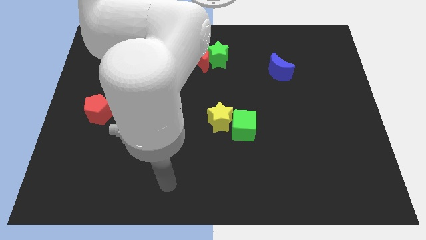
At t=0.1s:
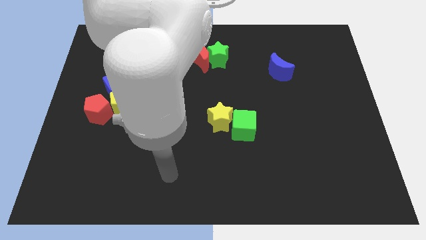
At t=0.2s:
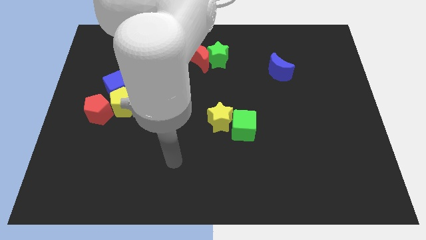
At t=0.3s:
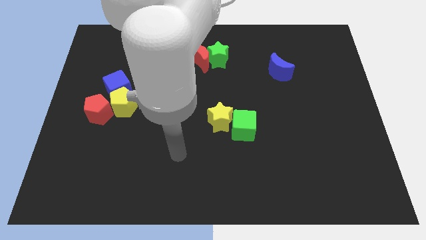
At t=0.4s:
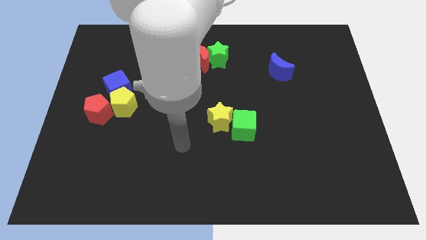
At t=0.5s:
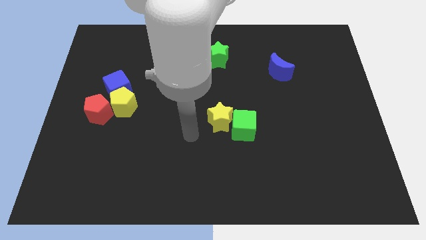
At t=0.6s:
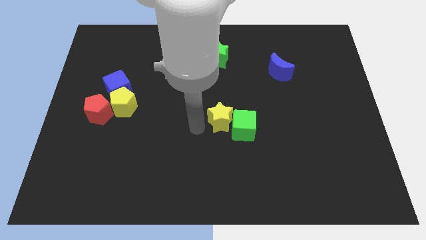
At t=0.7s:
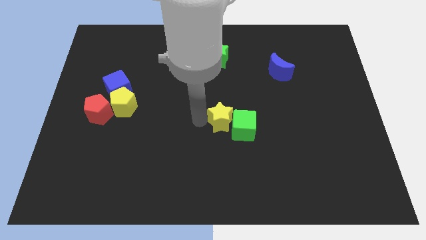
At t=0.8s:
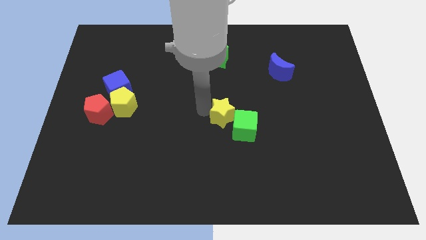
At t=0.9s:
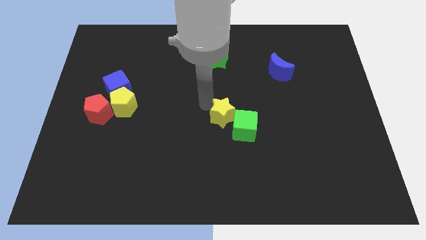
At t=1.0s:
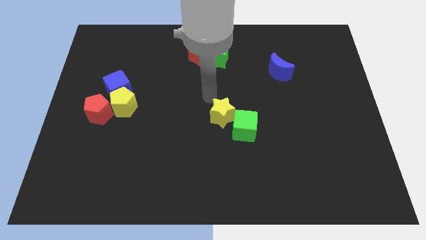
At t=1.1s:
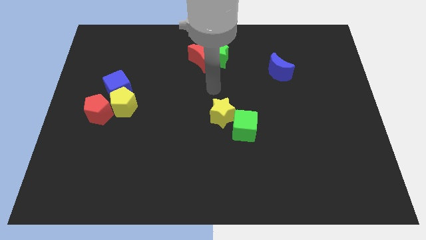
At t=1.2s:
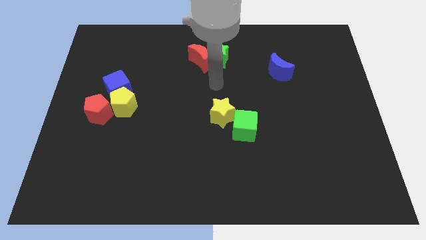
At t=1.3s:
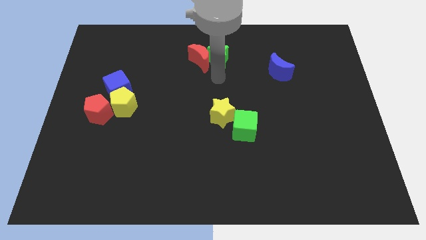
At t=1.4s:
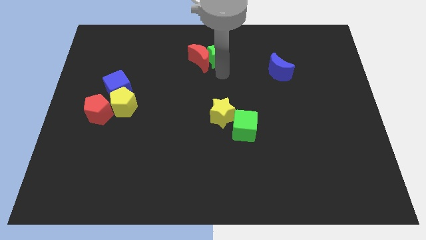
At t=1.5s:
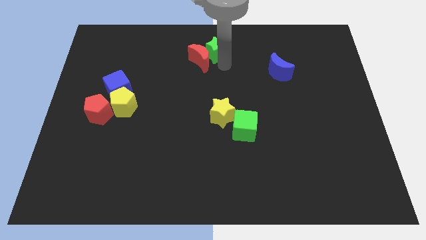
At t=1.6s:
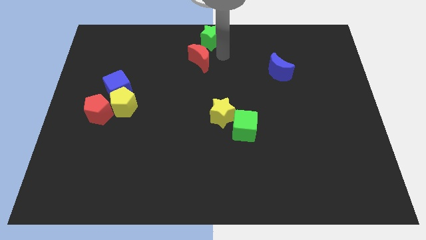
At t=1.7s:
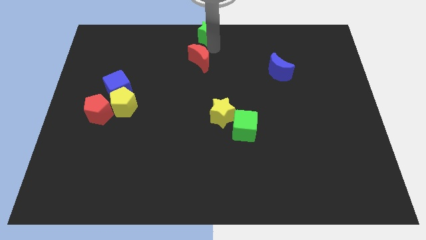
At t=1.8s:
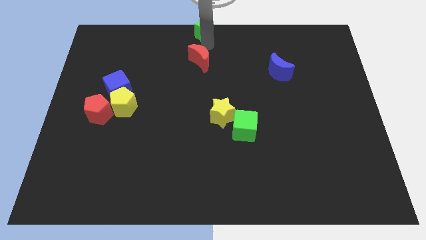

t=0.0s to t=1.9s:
move the red moon away from the green star

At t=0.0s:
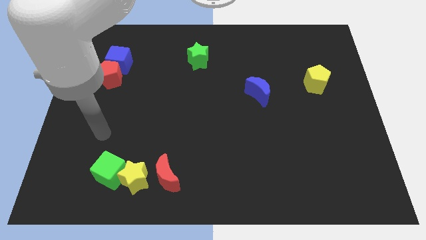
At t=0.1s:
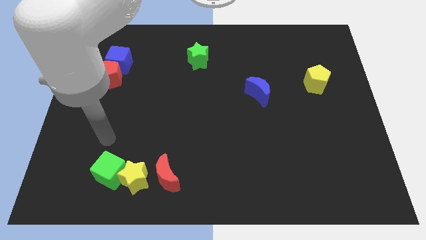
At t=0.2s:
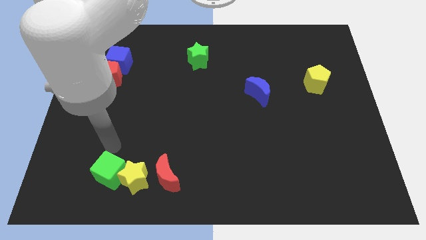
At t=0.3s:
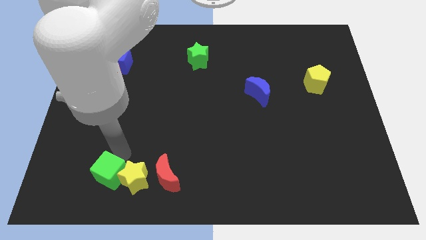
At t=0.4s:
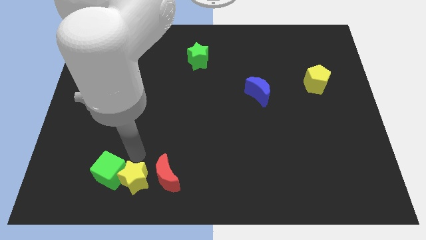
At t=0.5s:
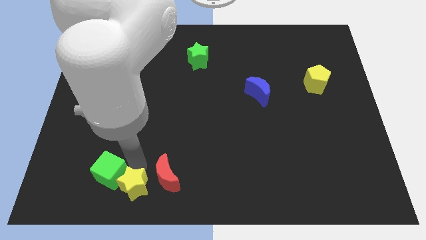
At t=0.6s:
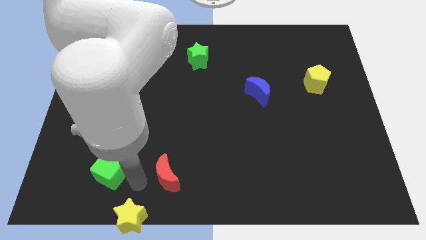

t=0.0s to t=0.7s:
move the green cube away from the yellow star

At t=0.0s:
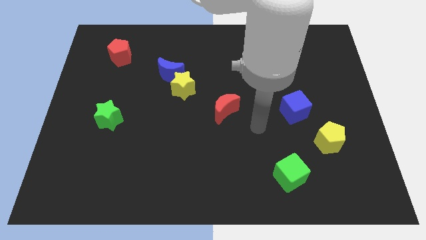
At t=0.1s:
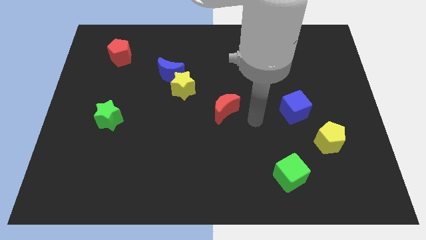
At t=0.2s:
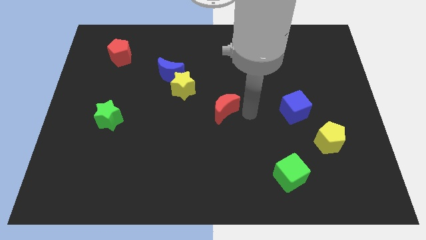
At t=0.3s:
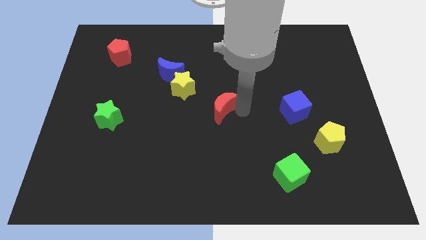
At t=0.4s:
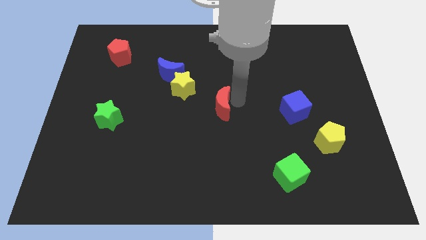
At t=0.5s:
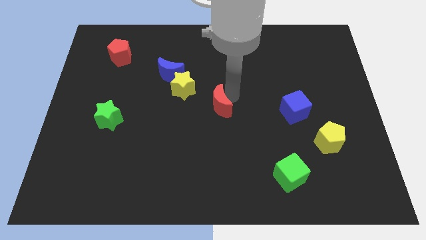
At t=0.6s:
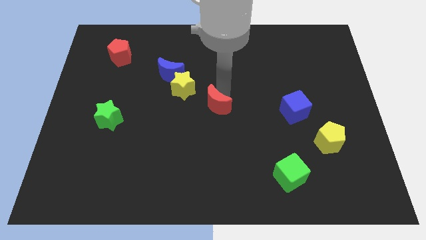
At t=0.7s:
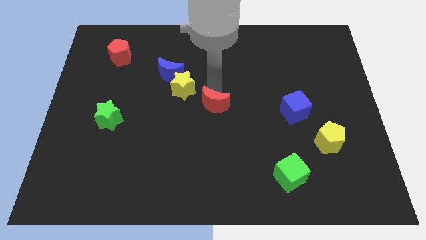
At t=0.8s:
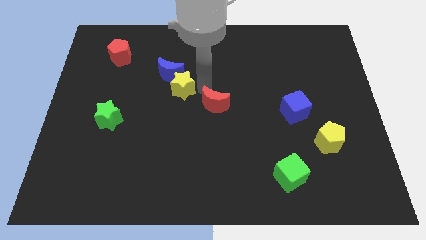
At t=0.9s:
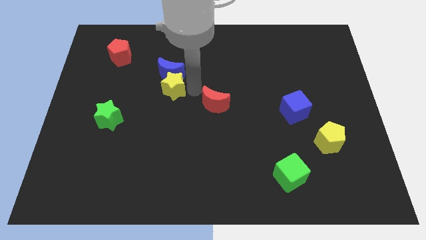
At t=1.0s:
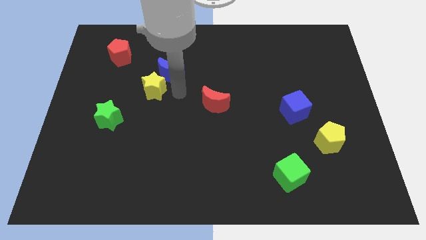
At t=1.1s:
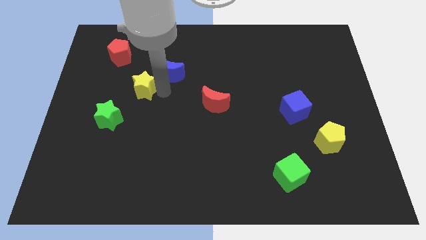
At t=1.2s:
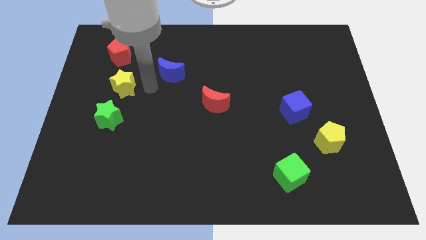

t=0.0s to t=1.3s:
move the blue moon away from the yellow star

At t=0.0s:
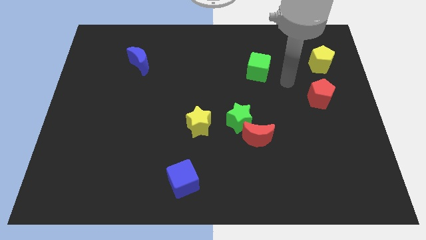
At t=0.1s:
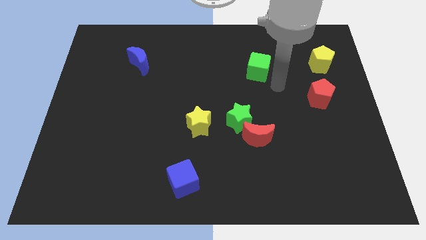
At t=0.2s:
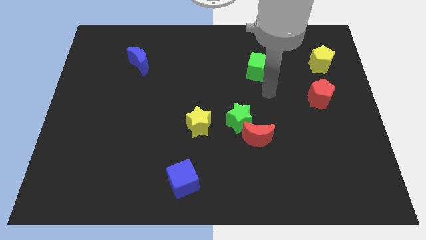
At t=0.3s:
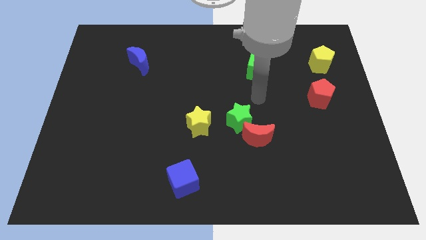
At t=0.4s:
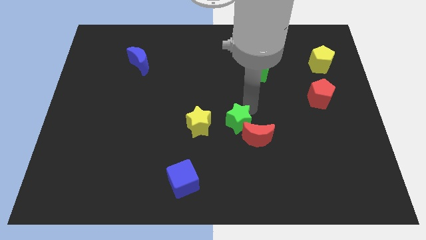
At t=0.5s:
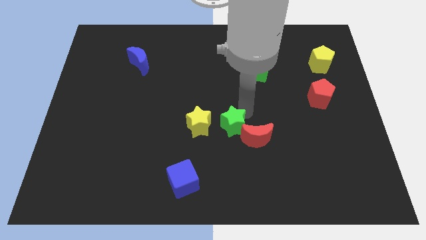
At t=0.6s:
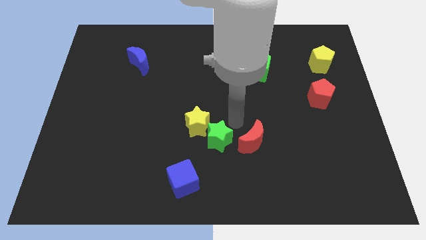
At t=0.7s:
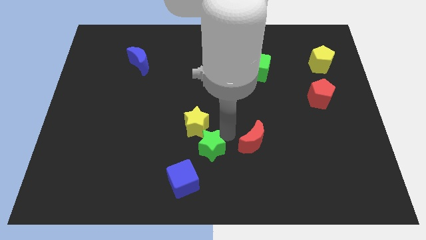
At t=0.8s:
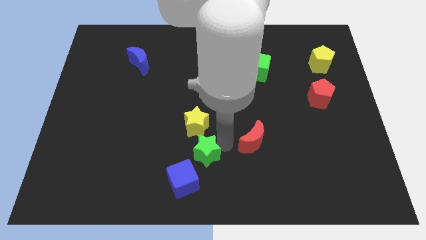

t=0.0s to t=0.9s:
separate the red moon from the green star

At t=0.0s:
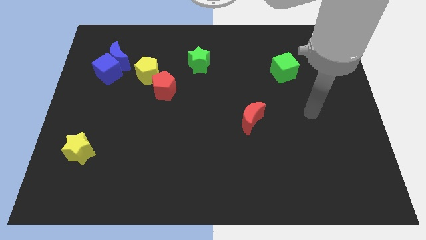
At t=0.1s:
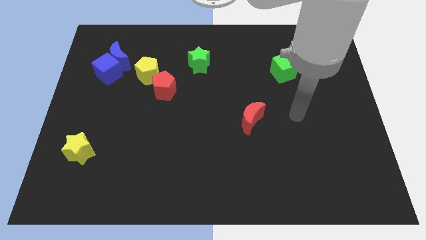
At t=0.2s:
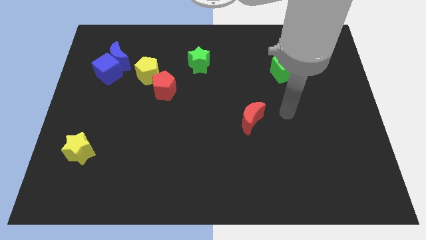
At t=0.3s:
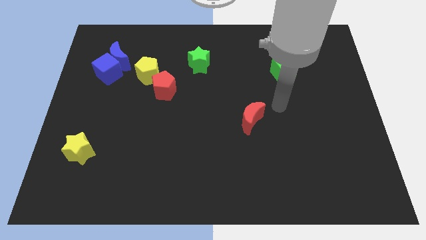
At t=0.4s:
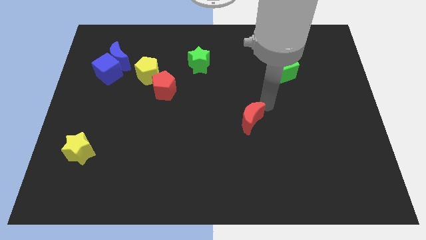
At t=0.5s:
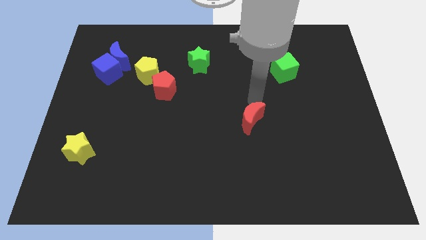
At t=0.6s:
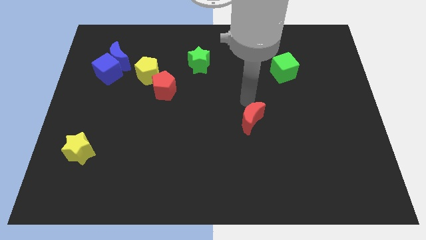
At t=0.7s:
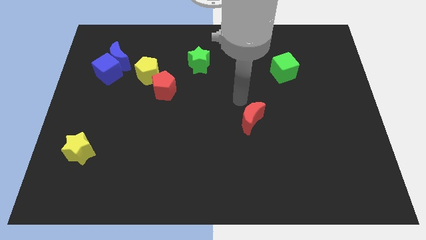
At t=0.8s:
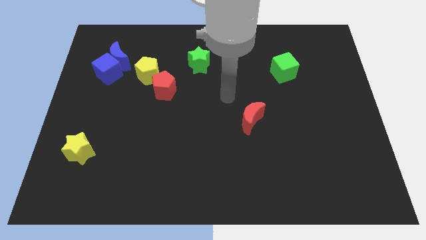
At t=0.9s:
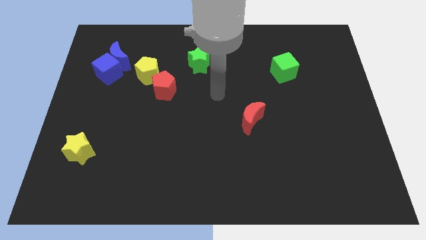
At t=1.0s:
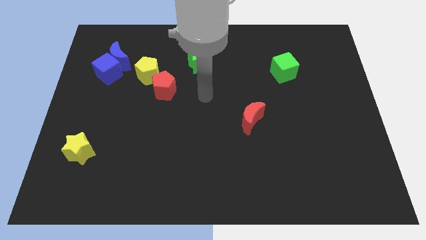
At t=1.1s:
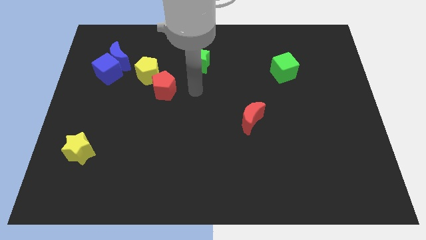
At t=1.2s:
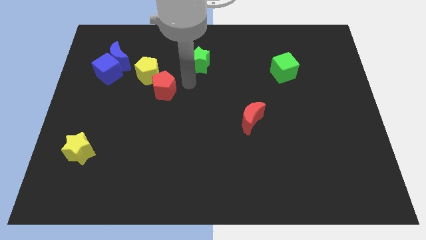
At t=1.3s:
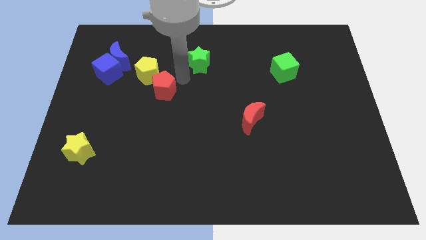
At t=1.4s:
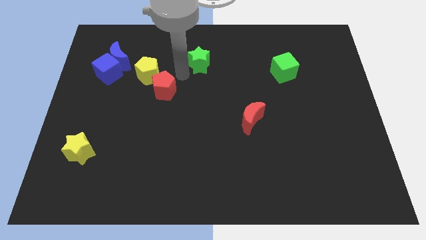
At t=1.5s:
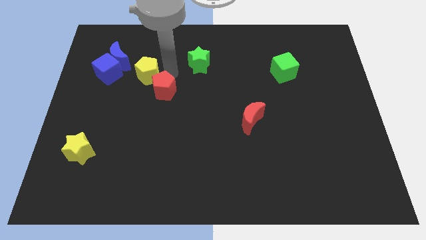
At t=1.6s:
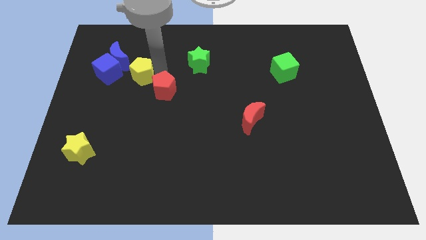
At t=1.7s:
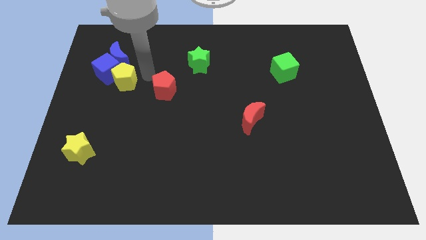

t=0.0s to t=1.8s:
pull the red pentagon apart from the yellow pentagon

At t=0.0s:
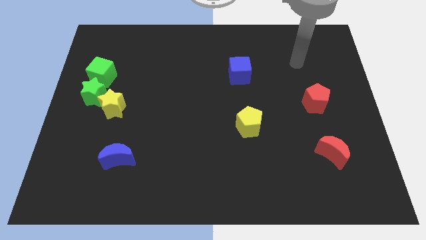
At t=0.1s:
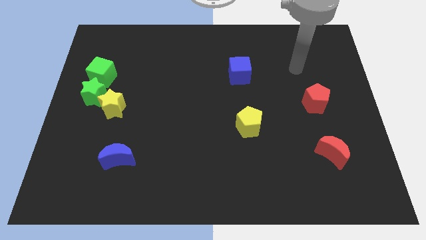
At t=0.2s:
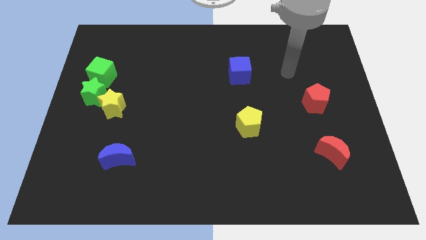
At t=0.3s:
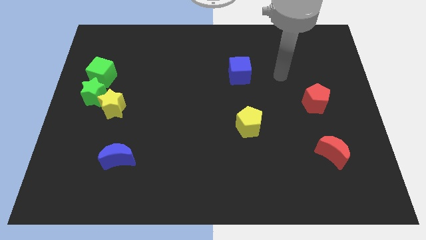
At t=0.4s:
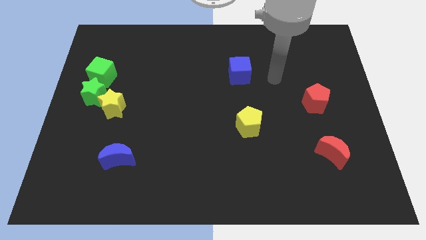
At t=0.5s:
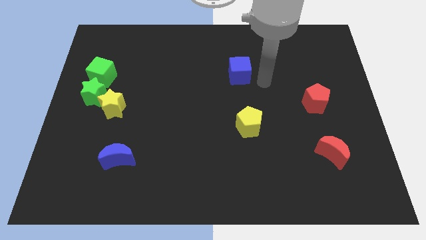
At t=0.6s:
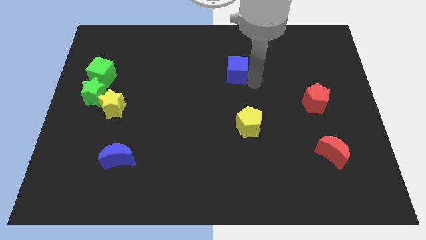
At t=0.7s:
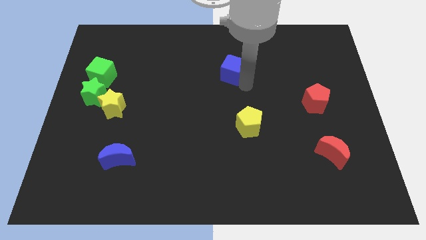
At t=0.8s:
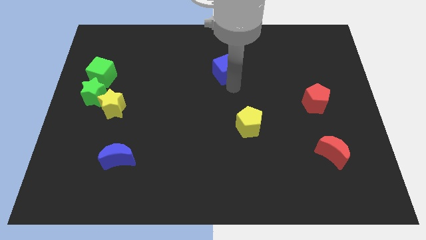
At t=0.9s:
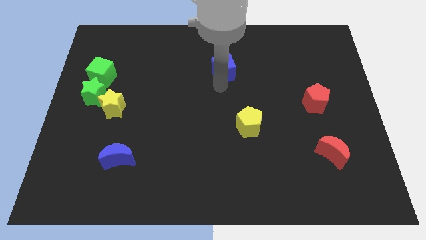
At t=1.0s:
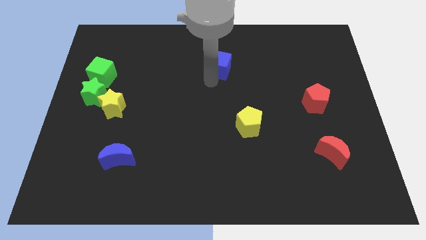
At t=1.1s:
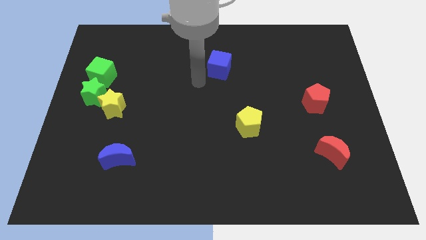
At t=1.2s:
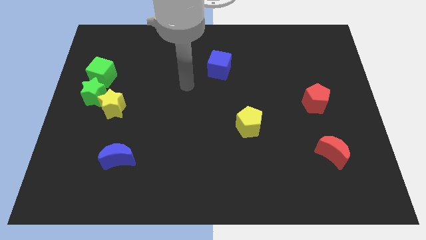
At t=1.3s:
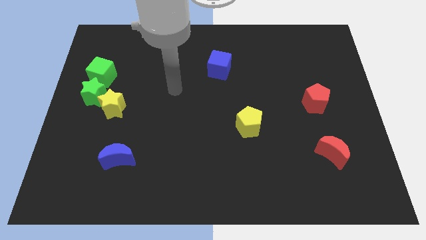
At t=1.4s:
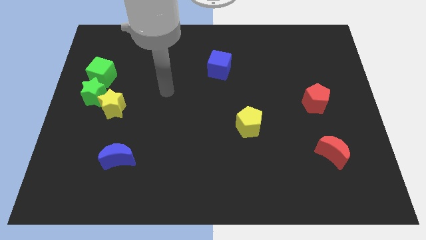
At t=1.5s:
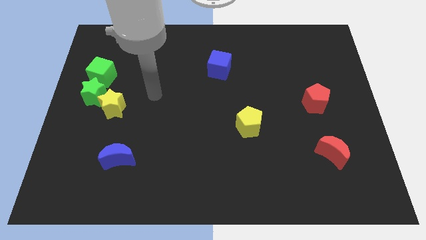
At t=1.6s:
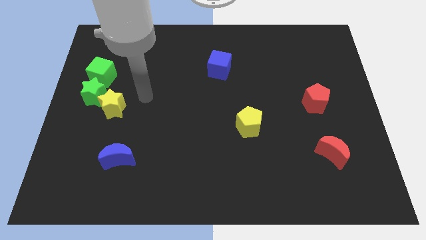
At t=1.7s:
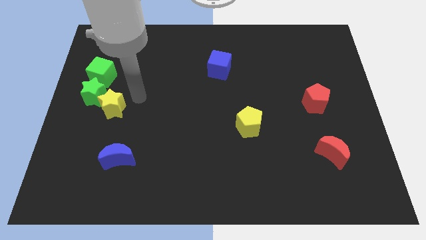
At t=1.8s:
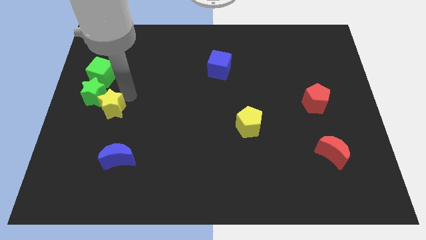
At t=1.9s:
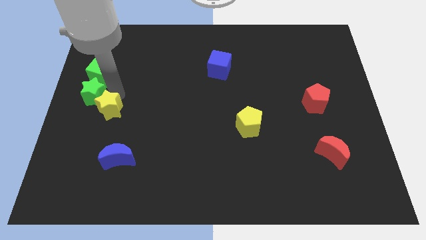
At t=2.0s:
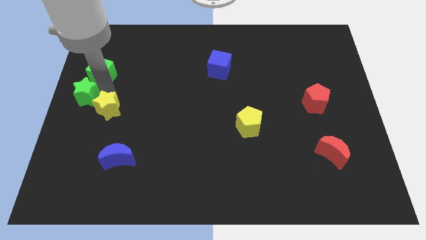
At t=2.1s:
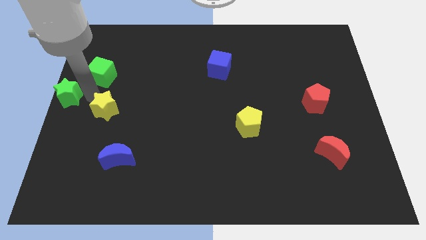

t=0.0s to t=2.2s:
separate the yellow star from the green star

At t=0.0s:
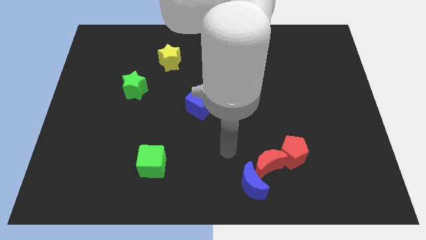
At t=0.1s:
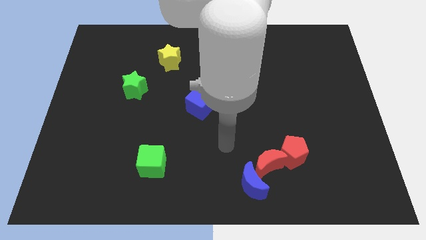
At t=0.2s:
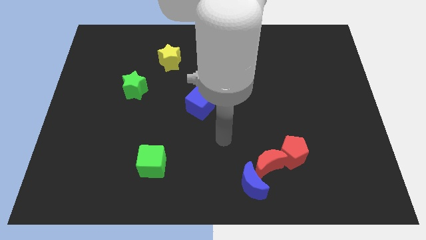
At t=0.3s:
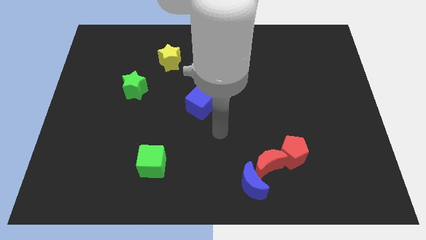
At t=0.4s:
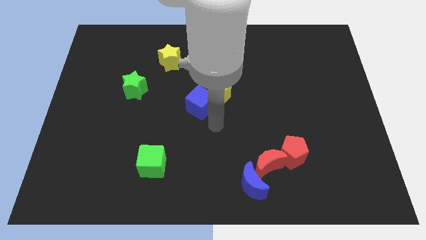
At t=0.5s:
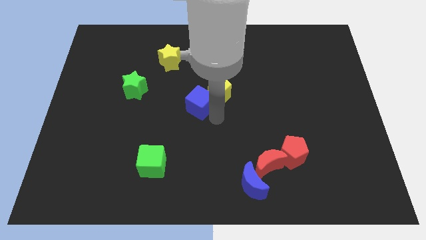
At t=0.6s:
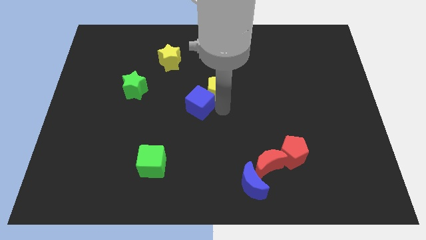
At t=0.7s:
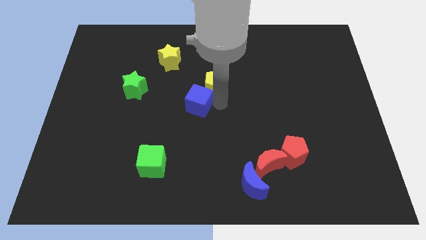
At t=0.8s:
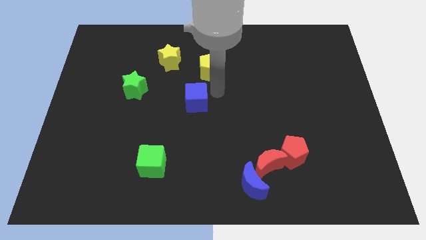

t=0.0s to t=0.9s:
pull the blue cube apart from the yellow pentagon
